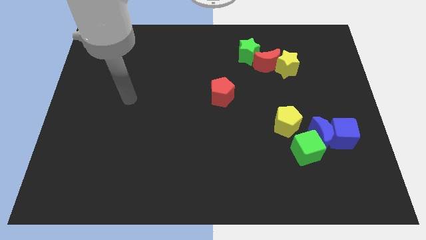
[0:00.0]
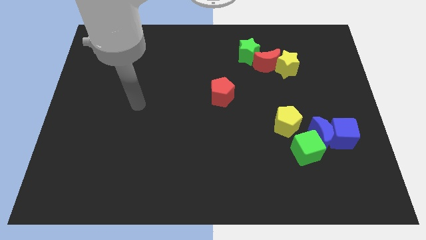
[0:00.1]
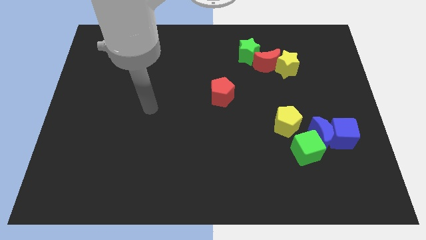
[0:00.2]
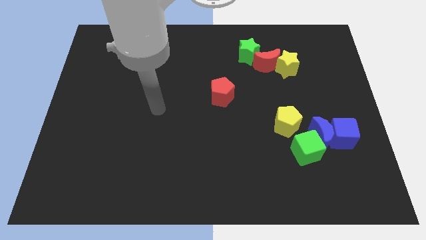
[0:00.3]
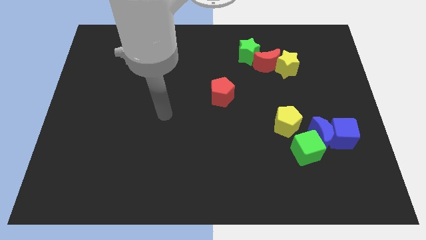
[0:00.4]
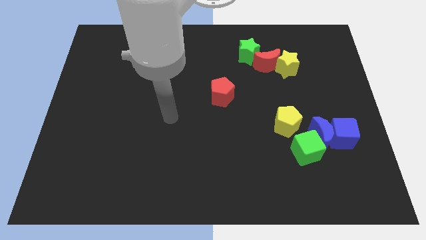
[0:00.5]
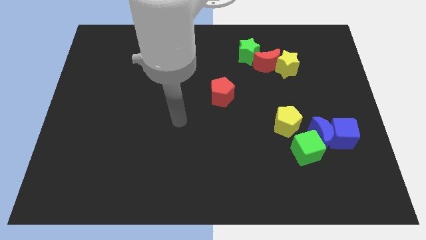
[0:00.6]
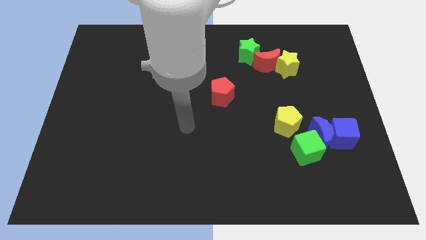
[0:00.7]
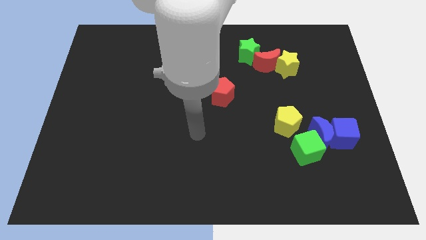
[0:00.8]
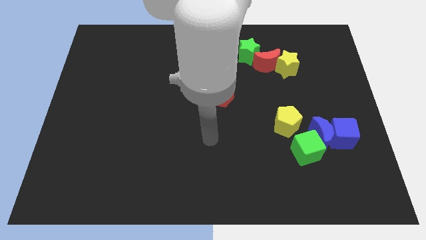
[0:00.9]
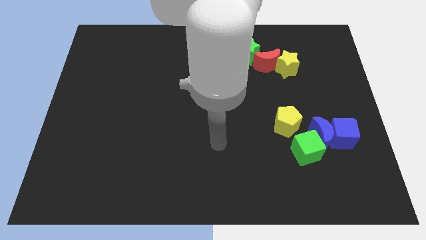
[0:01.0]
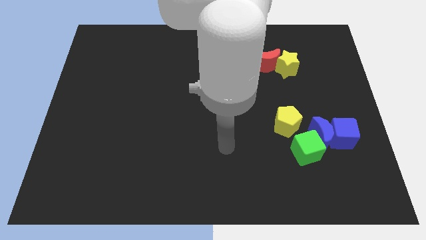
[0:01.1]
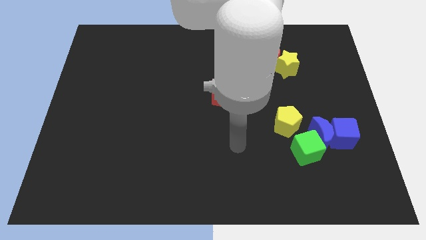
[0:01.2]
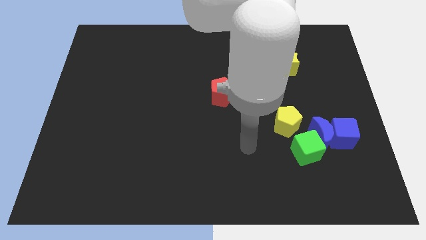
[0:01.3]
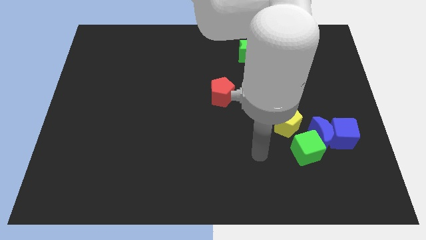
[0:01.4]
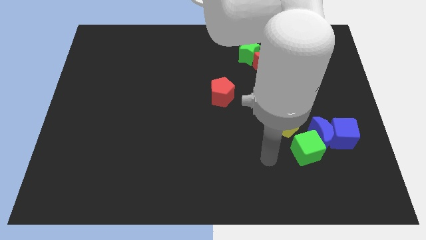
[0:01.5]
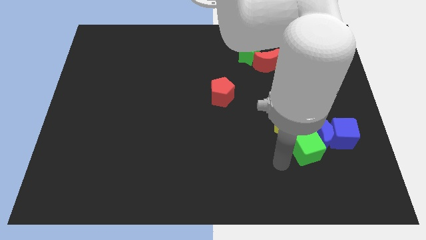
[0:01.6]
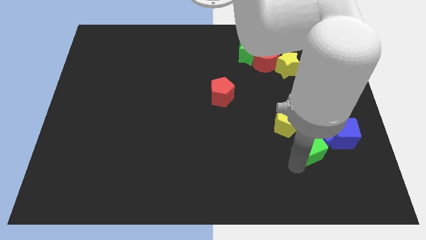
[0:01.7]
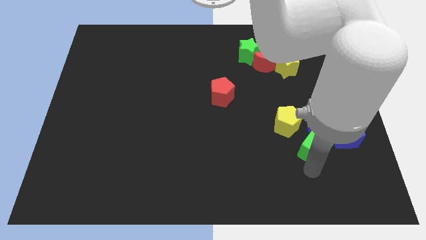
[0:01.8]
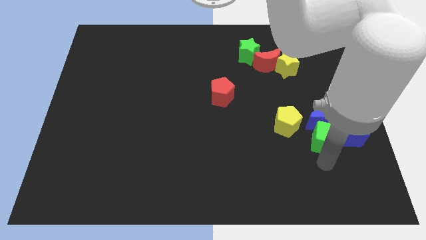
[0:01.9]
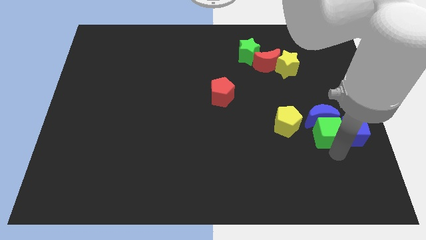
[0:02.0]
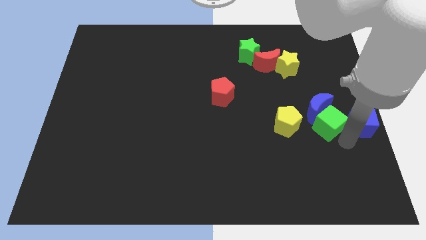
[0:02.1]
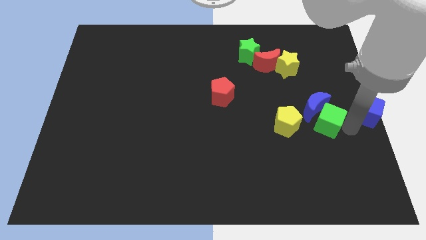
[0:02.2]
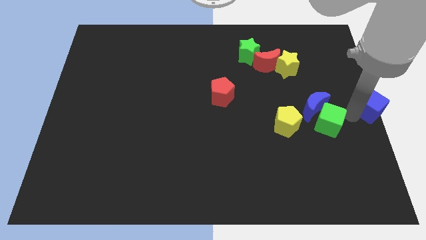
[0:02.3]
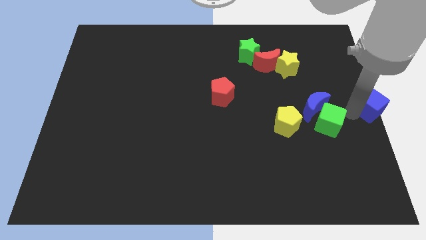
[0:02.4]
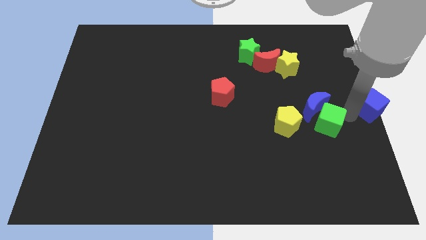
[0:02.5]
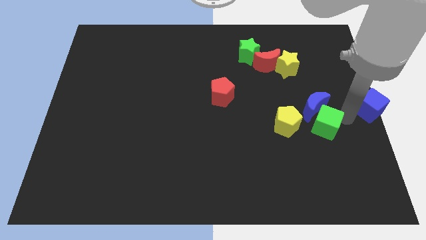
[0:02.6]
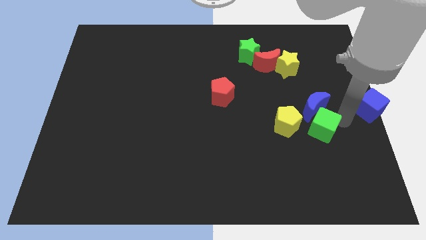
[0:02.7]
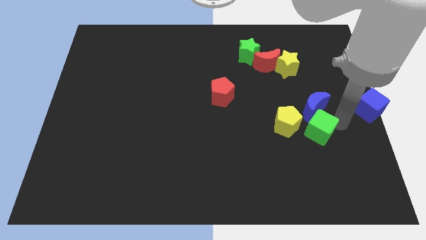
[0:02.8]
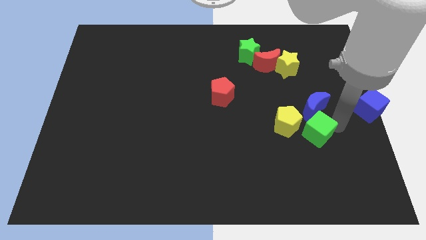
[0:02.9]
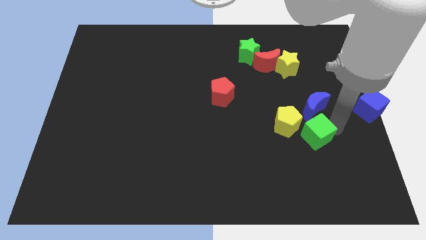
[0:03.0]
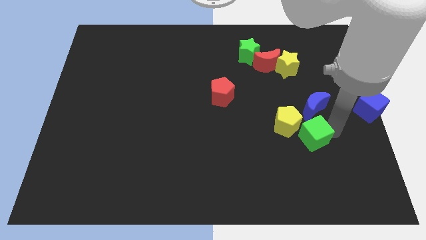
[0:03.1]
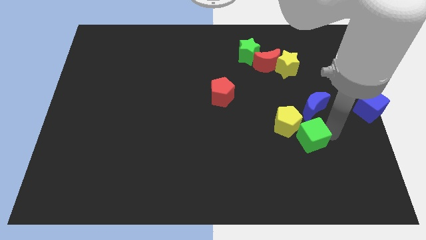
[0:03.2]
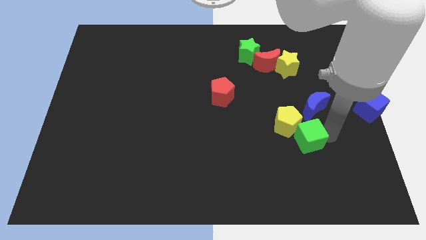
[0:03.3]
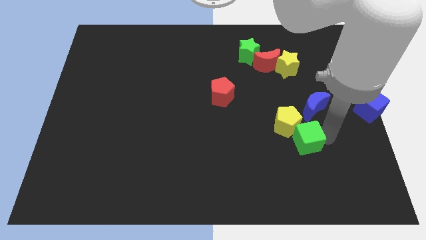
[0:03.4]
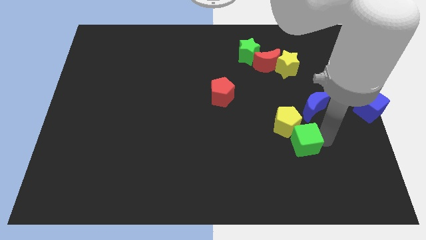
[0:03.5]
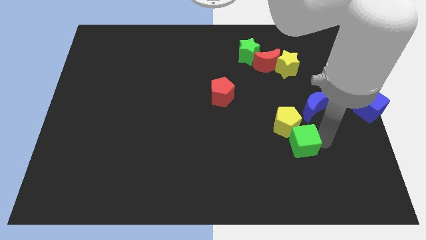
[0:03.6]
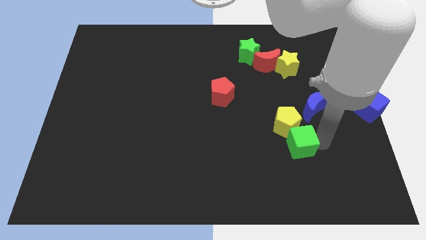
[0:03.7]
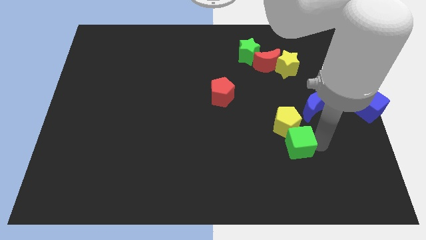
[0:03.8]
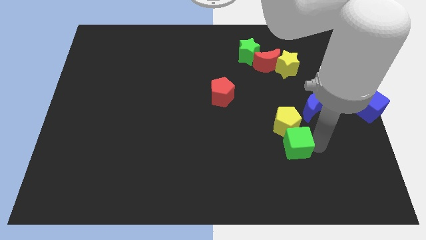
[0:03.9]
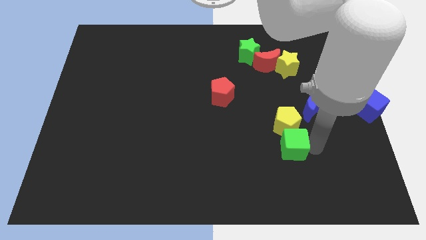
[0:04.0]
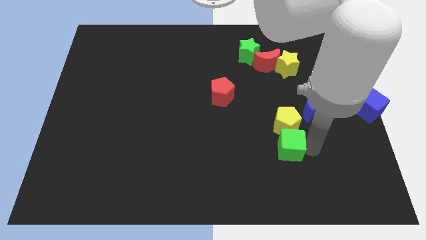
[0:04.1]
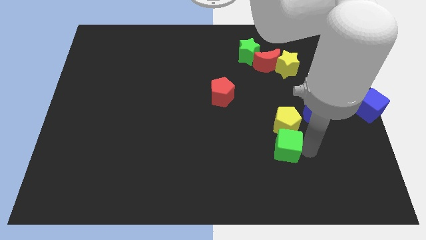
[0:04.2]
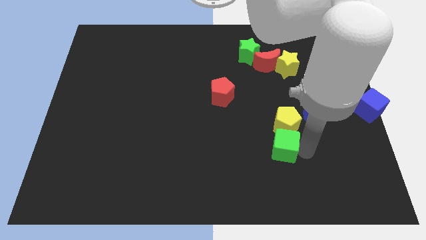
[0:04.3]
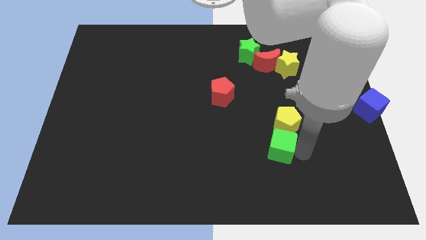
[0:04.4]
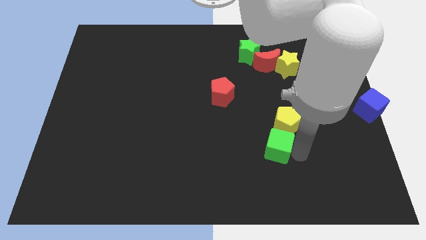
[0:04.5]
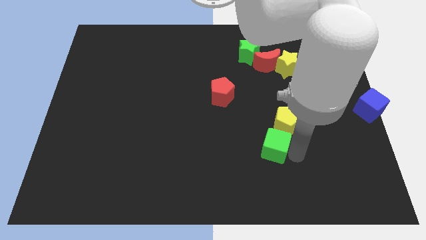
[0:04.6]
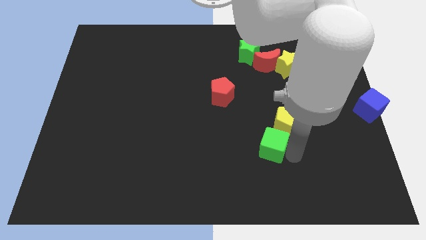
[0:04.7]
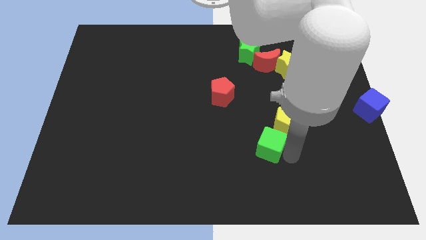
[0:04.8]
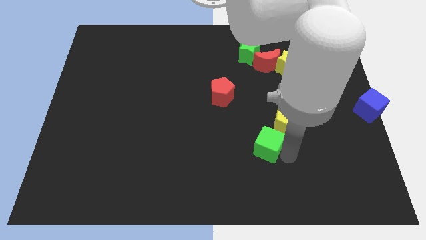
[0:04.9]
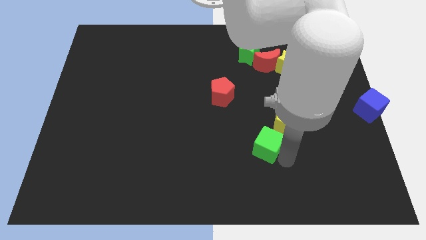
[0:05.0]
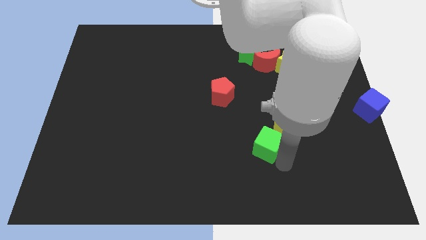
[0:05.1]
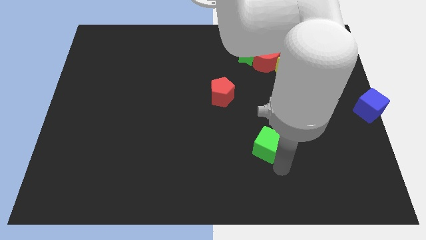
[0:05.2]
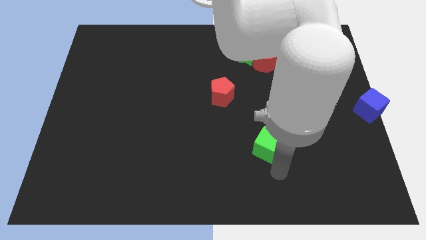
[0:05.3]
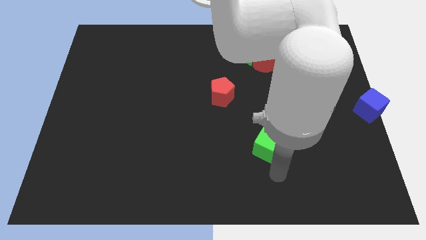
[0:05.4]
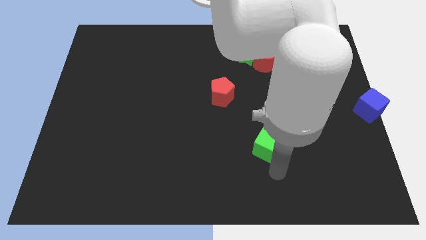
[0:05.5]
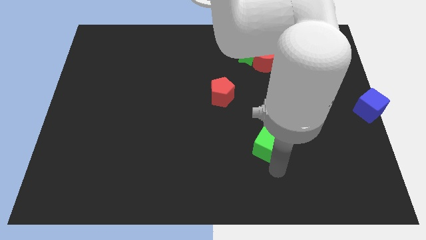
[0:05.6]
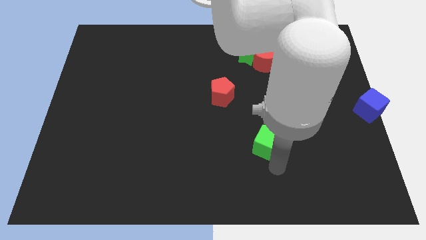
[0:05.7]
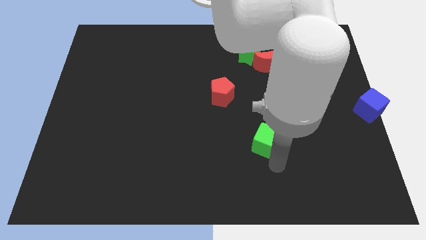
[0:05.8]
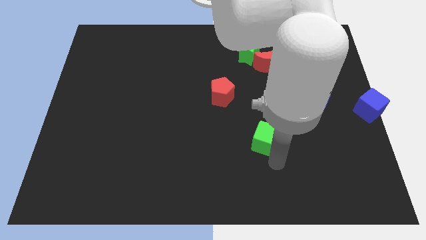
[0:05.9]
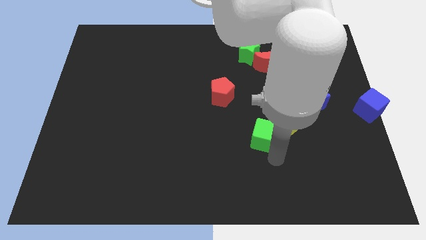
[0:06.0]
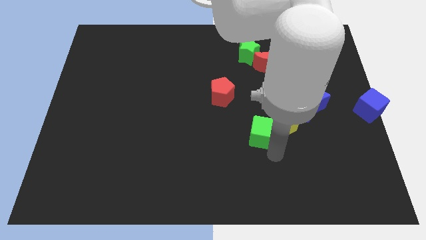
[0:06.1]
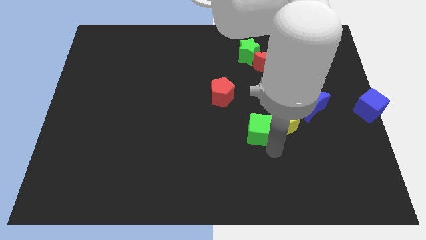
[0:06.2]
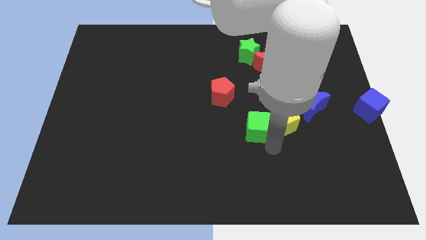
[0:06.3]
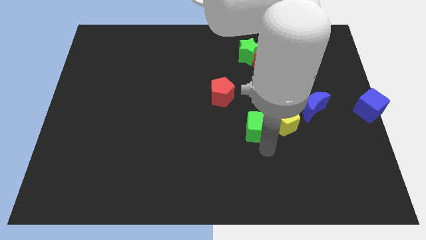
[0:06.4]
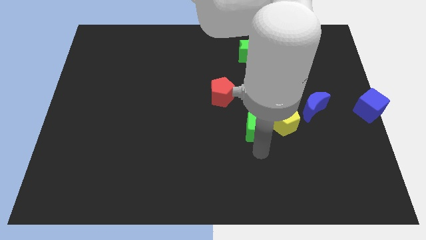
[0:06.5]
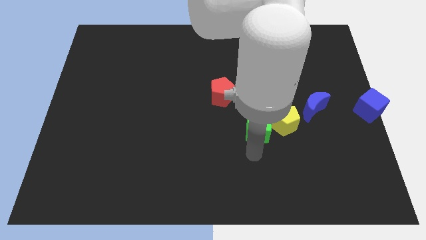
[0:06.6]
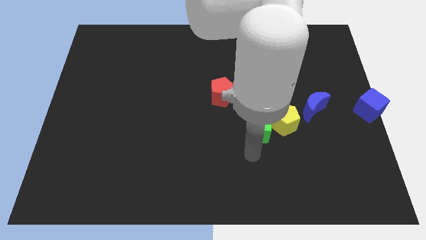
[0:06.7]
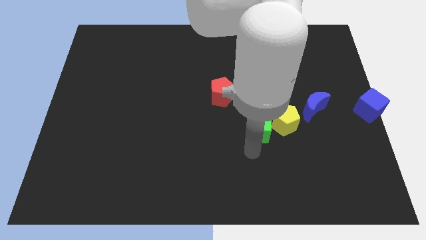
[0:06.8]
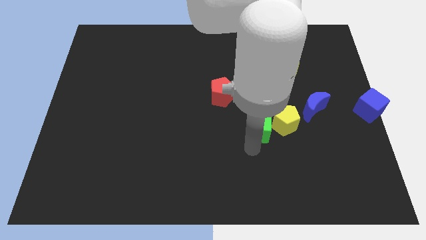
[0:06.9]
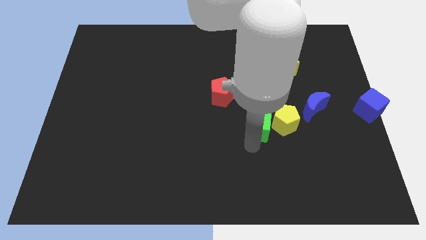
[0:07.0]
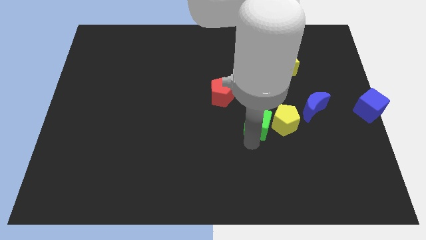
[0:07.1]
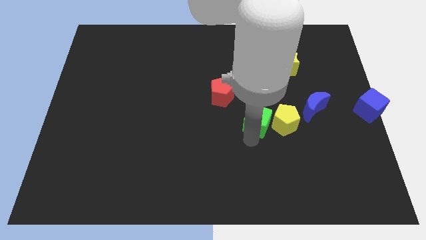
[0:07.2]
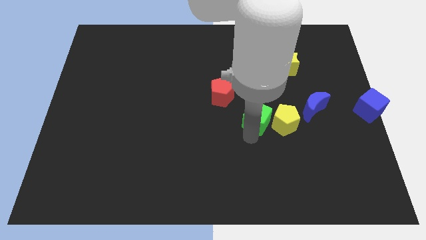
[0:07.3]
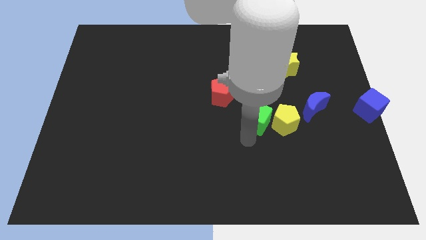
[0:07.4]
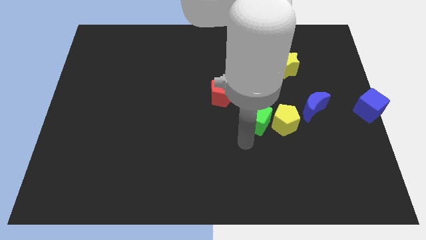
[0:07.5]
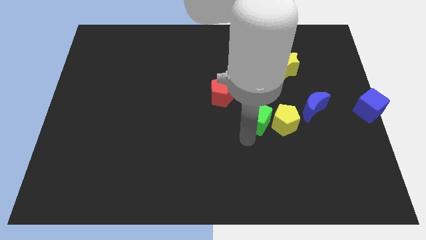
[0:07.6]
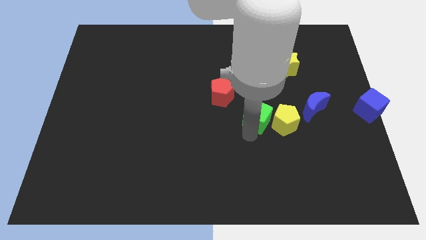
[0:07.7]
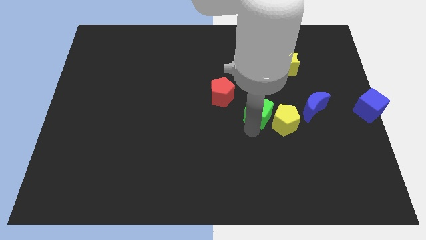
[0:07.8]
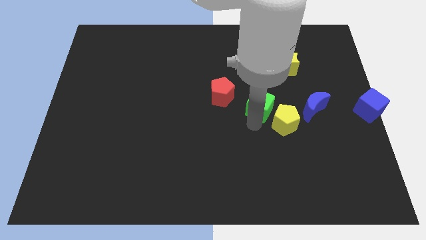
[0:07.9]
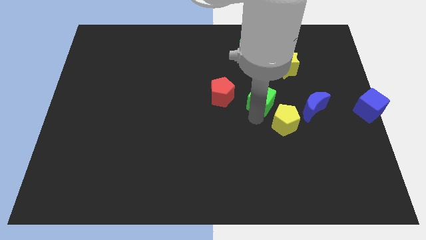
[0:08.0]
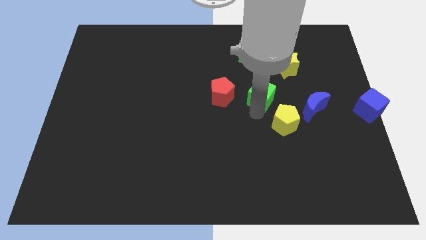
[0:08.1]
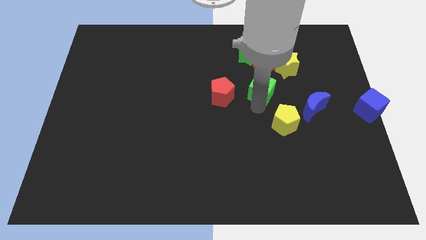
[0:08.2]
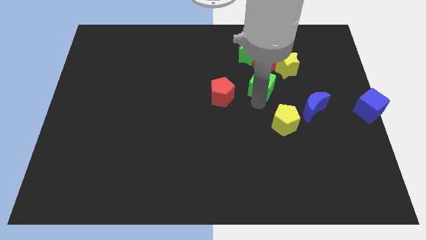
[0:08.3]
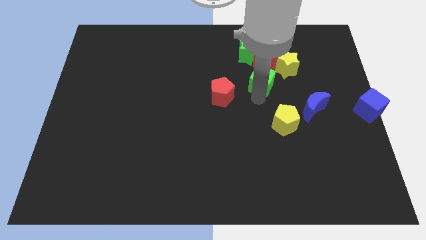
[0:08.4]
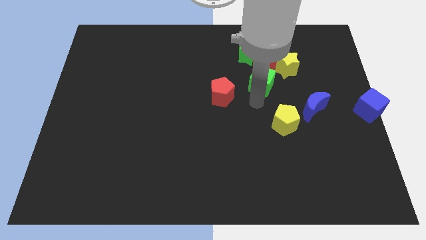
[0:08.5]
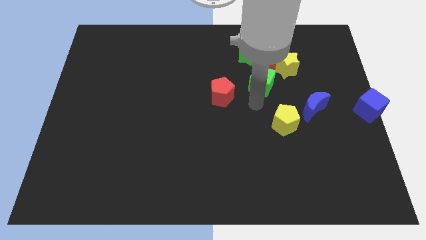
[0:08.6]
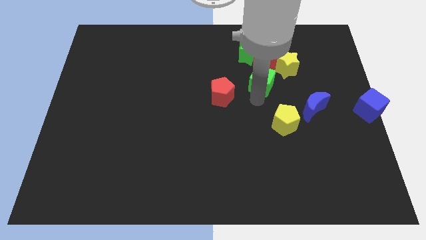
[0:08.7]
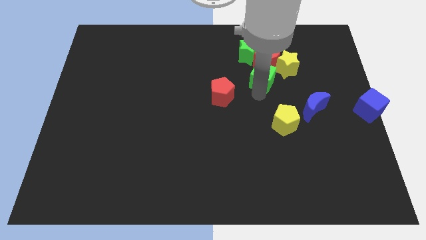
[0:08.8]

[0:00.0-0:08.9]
move the green cube towards the red moon
